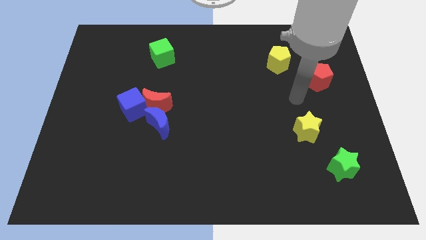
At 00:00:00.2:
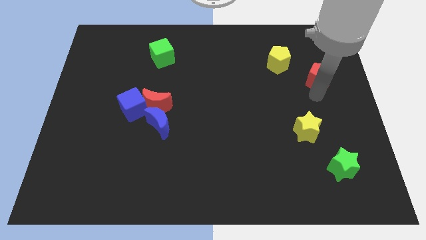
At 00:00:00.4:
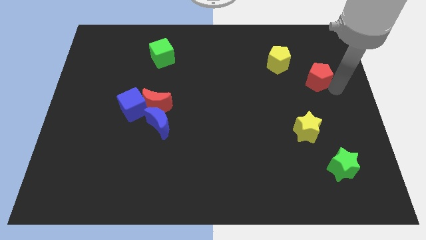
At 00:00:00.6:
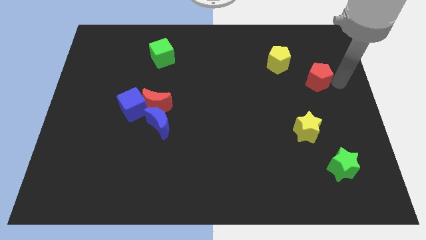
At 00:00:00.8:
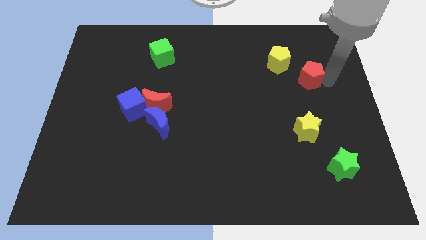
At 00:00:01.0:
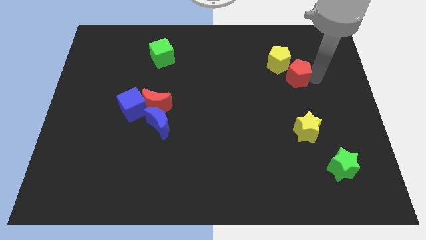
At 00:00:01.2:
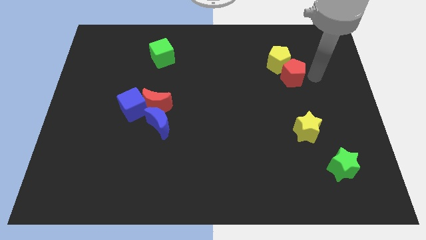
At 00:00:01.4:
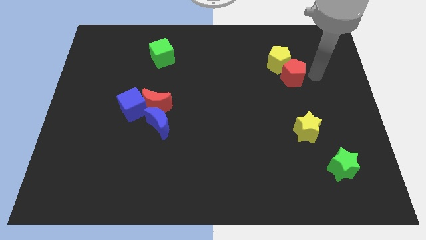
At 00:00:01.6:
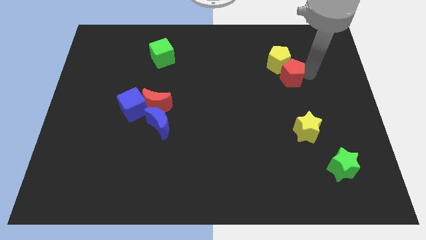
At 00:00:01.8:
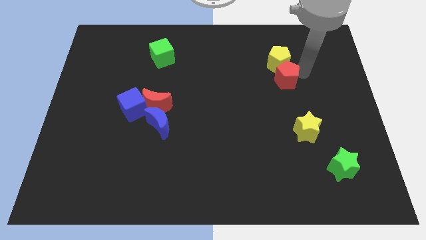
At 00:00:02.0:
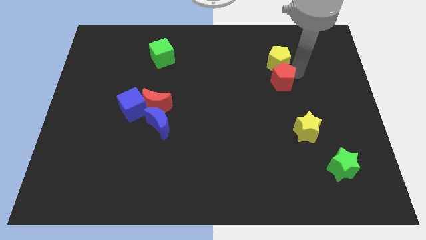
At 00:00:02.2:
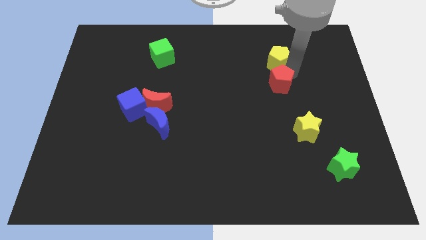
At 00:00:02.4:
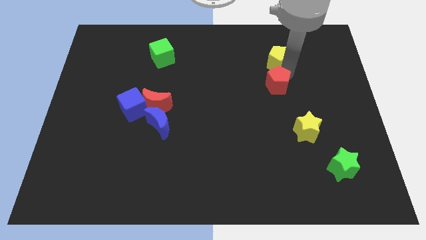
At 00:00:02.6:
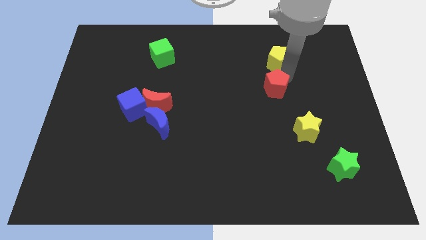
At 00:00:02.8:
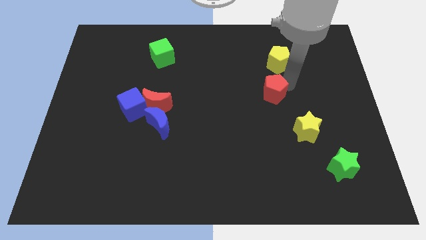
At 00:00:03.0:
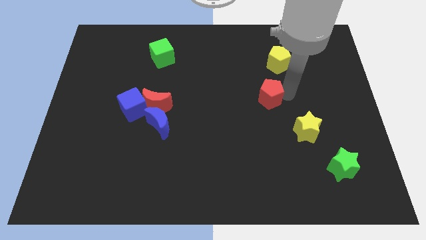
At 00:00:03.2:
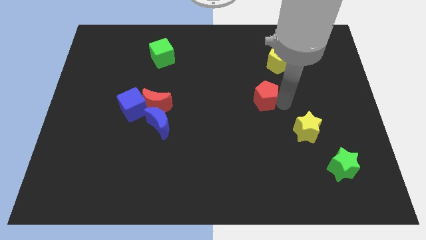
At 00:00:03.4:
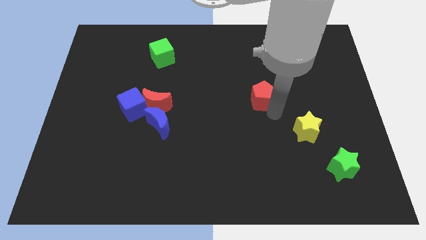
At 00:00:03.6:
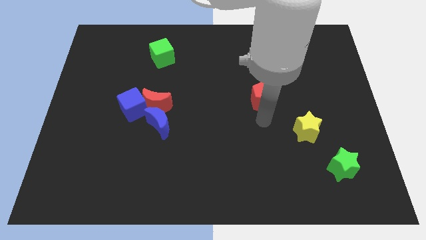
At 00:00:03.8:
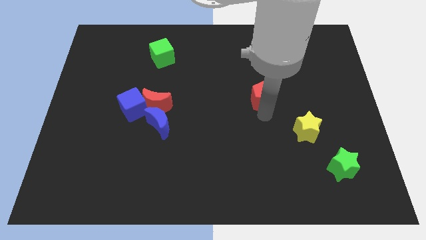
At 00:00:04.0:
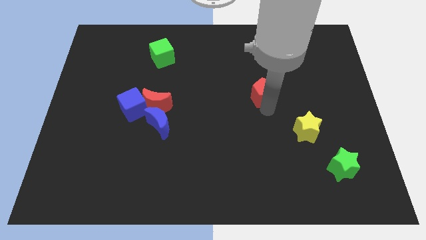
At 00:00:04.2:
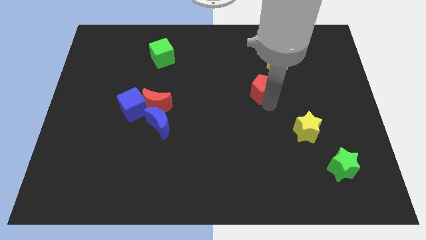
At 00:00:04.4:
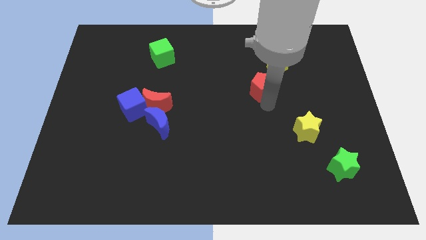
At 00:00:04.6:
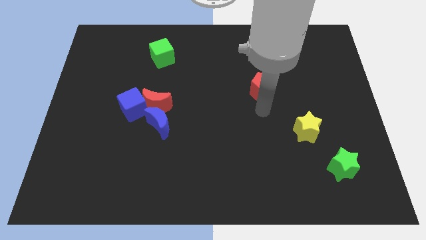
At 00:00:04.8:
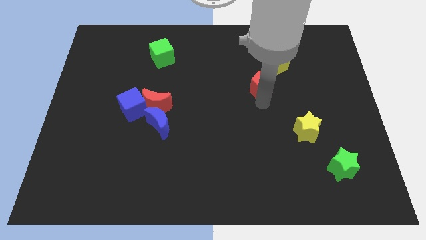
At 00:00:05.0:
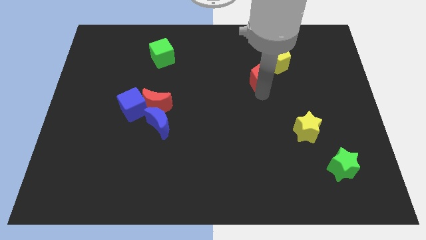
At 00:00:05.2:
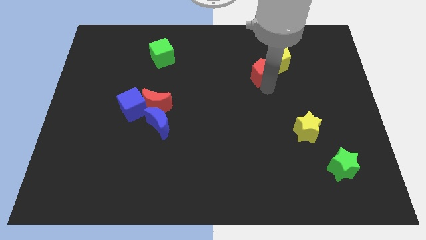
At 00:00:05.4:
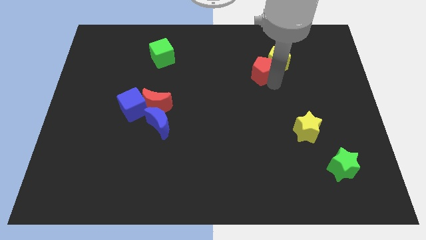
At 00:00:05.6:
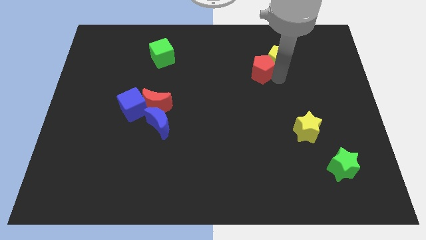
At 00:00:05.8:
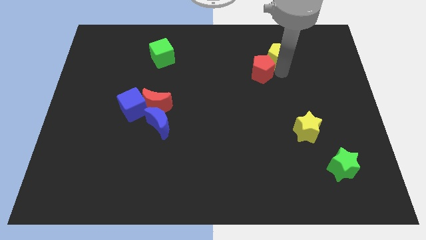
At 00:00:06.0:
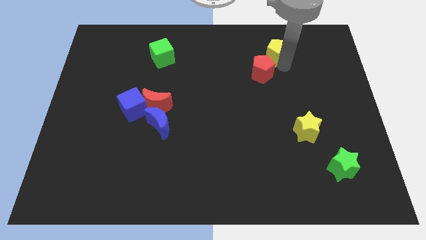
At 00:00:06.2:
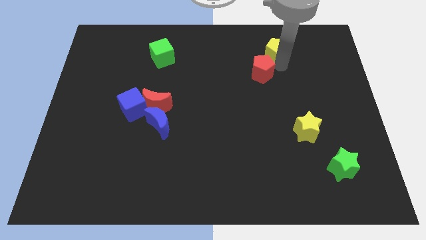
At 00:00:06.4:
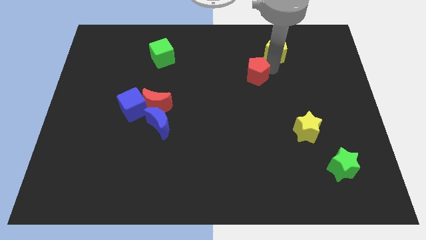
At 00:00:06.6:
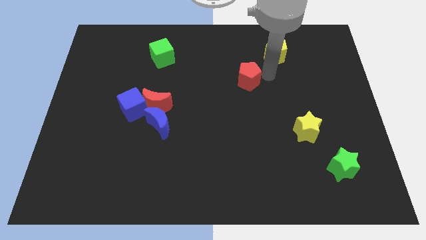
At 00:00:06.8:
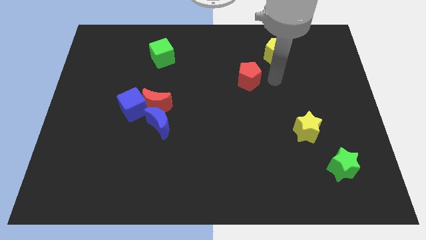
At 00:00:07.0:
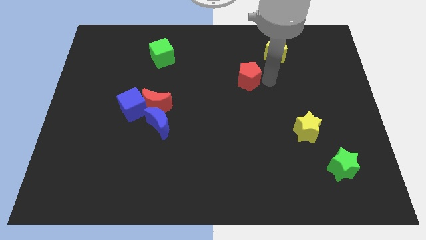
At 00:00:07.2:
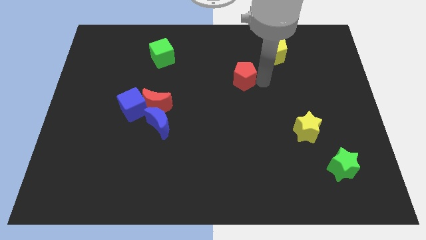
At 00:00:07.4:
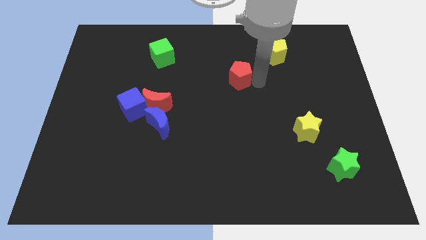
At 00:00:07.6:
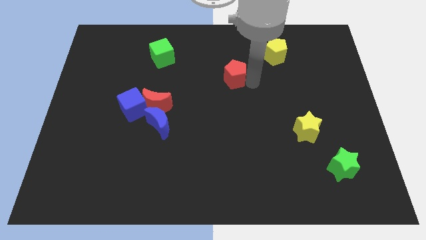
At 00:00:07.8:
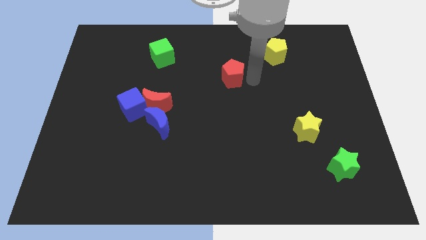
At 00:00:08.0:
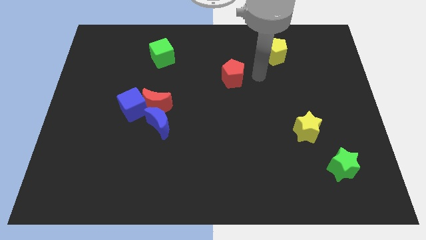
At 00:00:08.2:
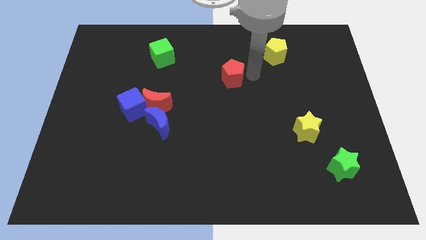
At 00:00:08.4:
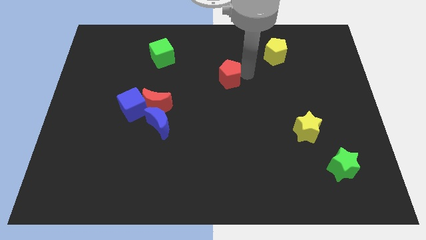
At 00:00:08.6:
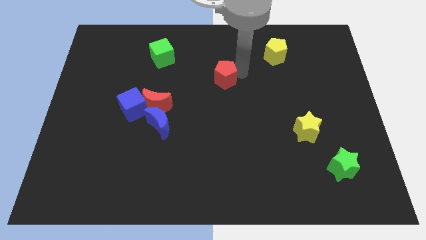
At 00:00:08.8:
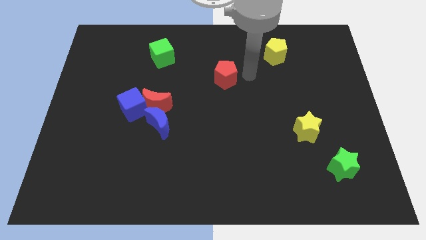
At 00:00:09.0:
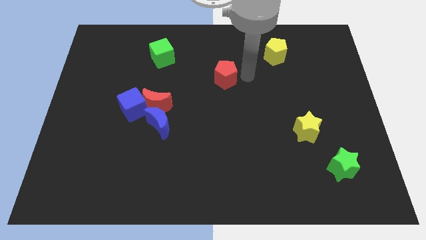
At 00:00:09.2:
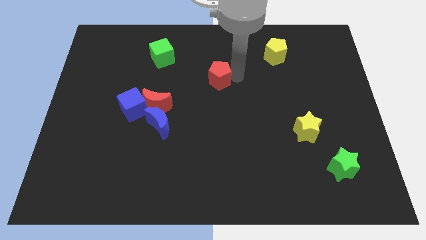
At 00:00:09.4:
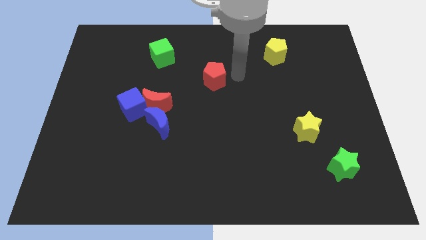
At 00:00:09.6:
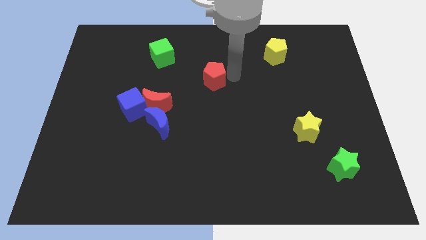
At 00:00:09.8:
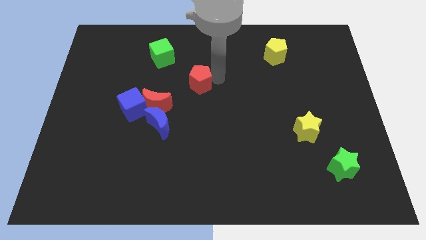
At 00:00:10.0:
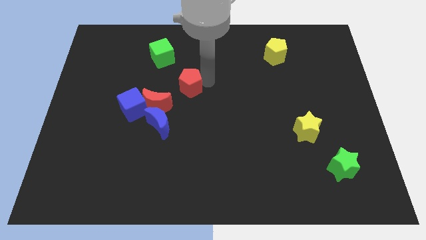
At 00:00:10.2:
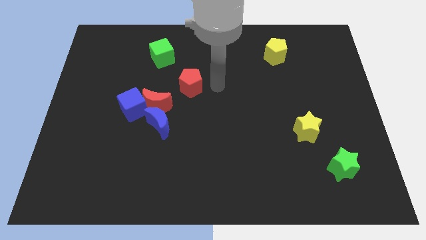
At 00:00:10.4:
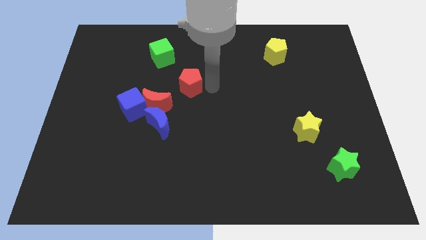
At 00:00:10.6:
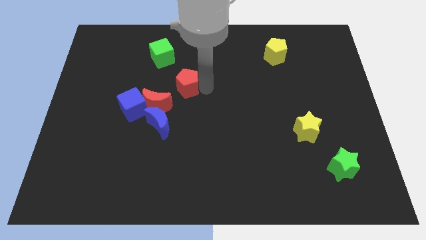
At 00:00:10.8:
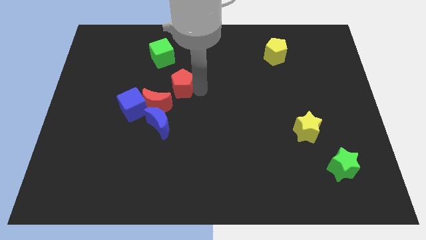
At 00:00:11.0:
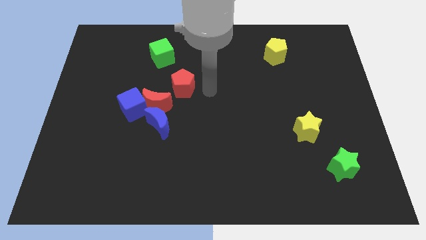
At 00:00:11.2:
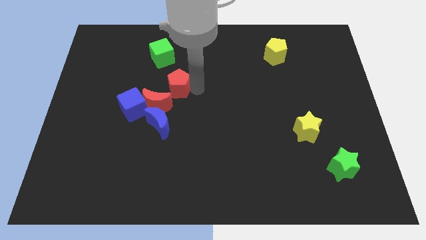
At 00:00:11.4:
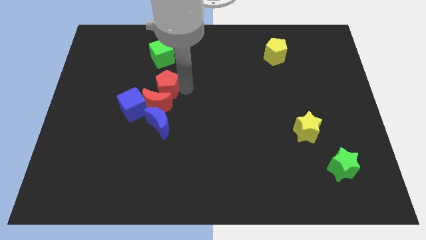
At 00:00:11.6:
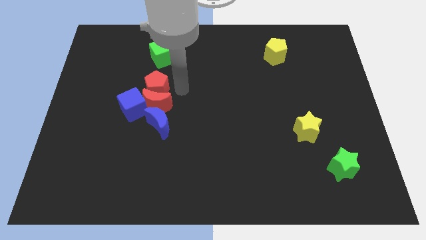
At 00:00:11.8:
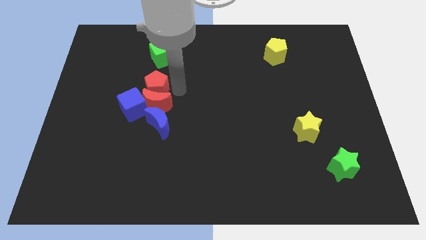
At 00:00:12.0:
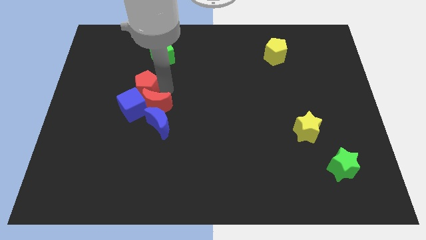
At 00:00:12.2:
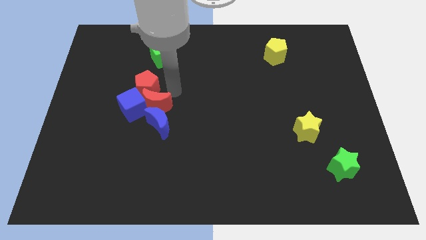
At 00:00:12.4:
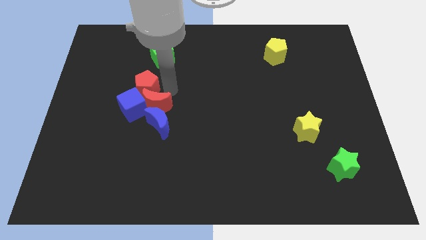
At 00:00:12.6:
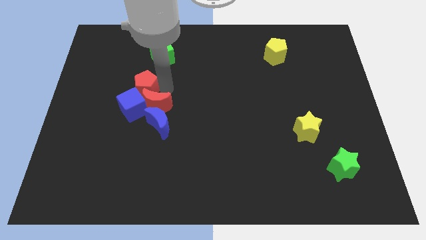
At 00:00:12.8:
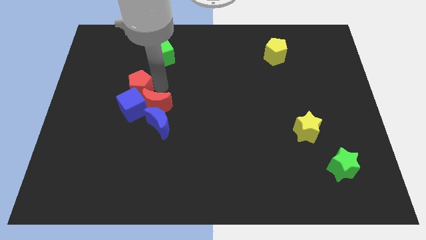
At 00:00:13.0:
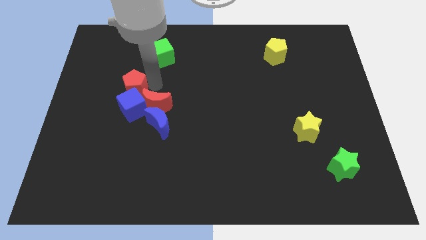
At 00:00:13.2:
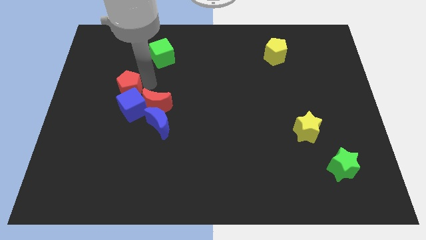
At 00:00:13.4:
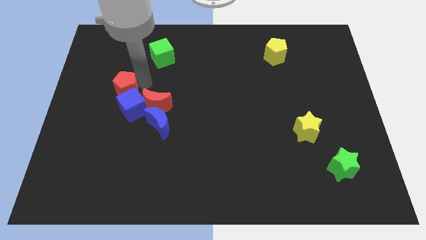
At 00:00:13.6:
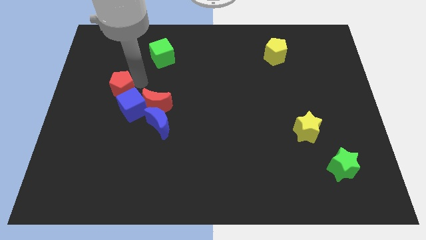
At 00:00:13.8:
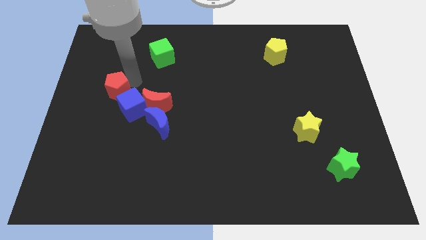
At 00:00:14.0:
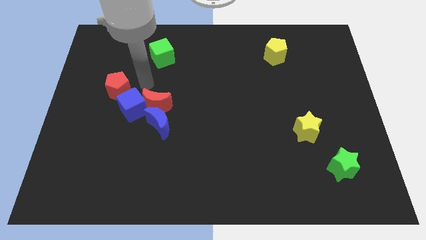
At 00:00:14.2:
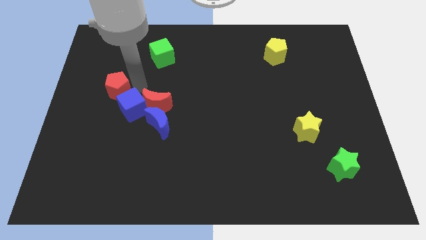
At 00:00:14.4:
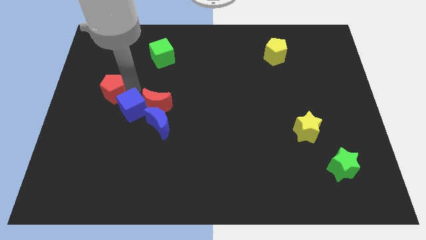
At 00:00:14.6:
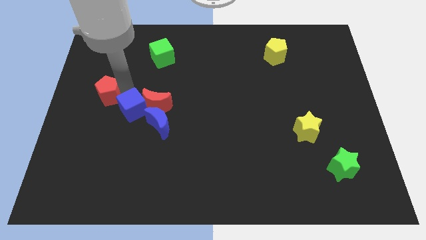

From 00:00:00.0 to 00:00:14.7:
move the red pentagon to the left side of the board
